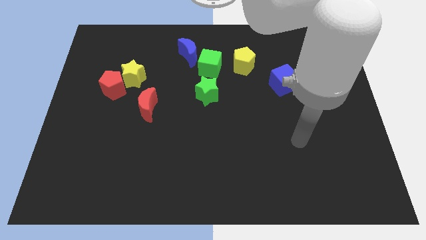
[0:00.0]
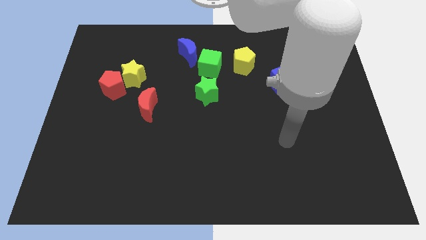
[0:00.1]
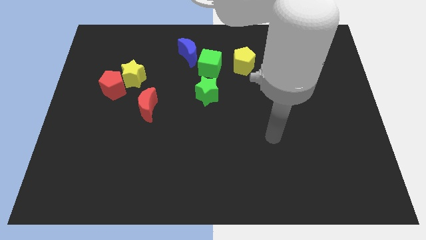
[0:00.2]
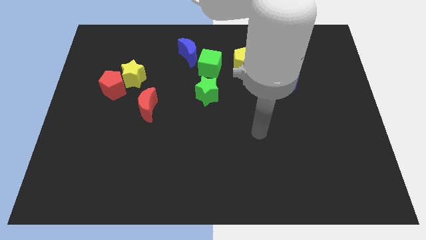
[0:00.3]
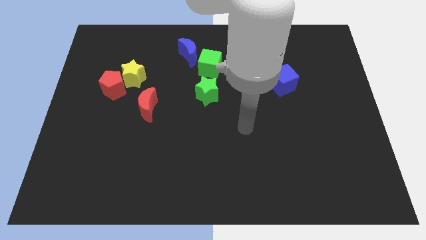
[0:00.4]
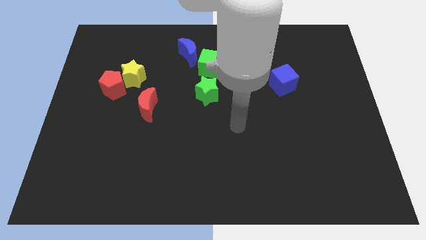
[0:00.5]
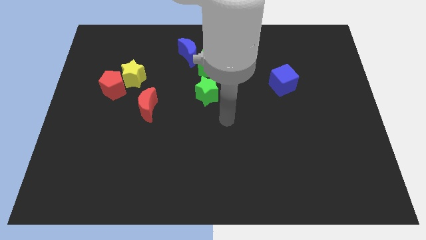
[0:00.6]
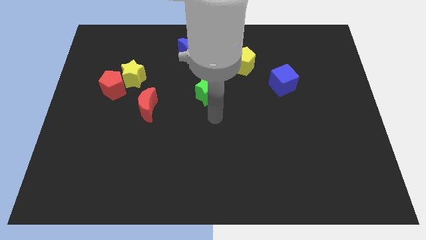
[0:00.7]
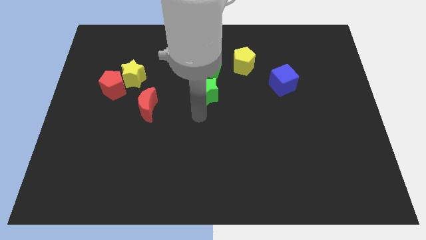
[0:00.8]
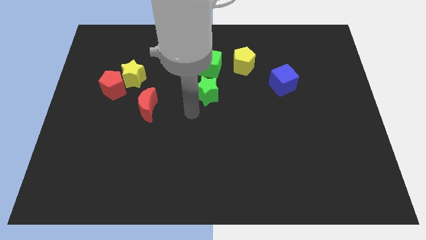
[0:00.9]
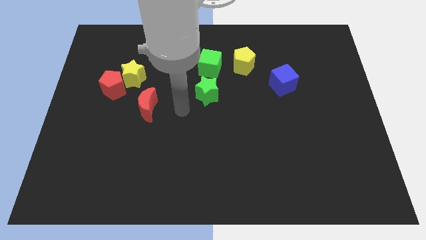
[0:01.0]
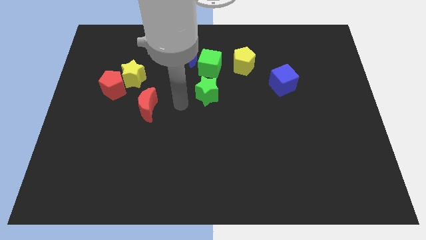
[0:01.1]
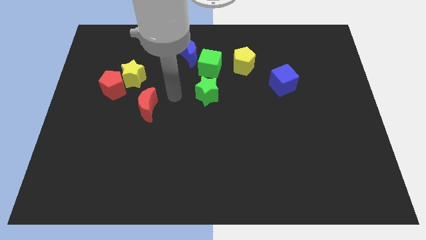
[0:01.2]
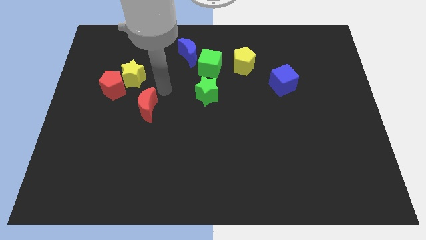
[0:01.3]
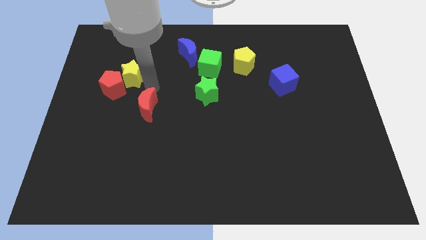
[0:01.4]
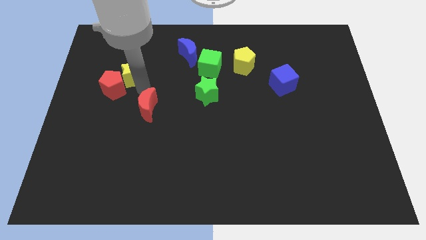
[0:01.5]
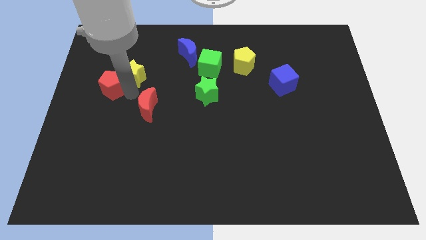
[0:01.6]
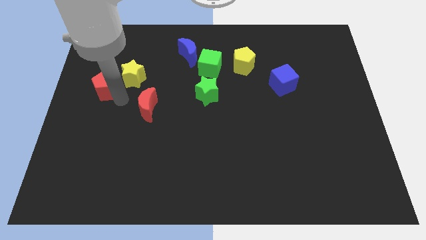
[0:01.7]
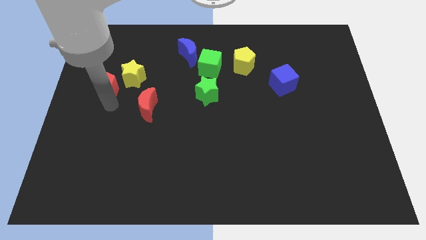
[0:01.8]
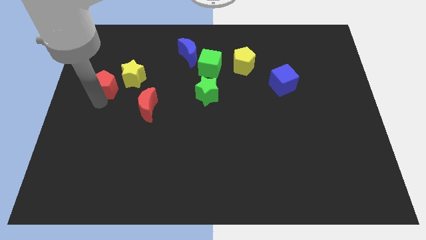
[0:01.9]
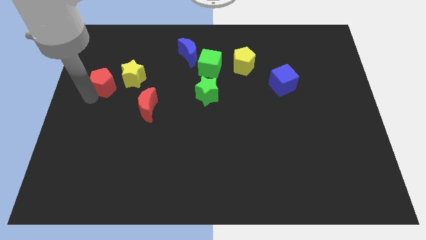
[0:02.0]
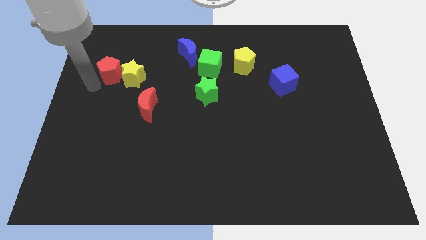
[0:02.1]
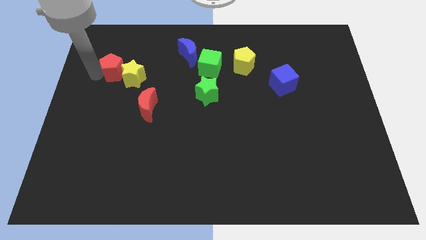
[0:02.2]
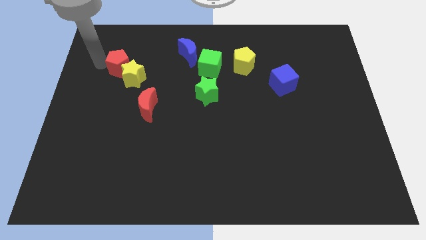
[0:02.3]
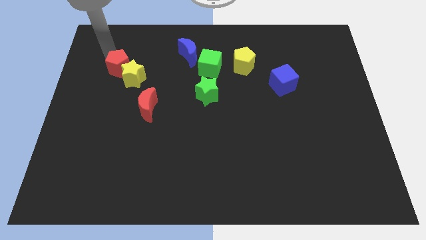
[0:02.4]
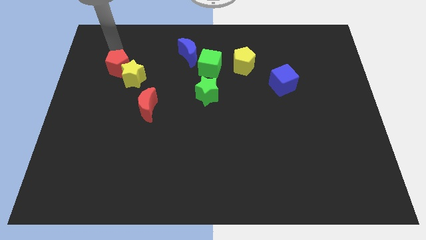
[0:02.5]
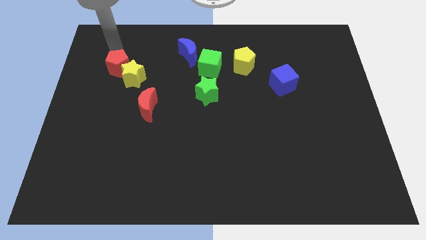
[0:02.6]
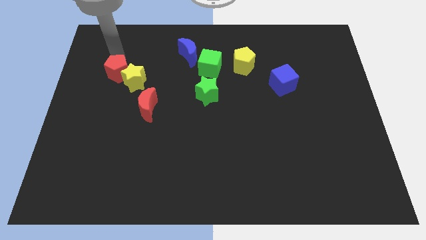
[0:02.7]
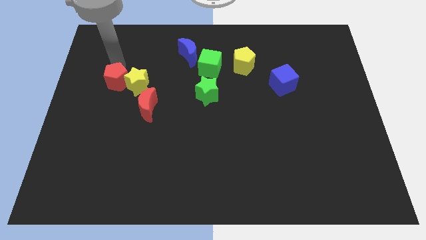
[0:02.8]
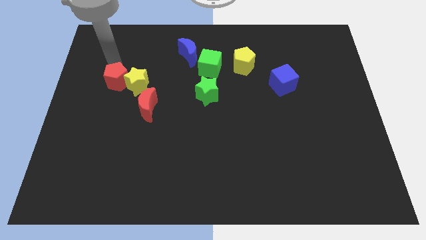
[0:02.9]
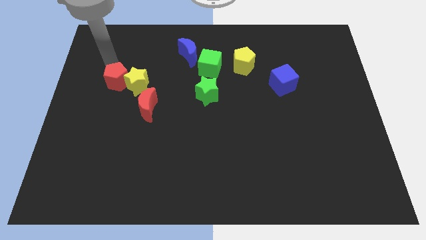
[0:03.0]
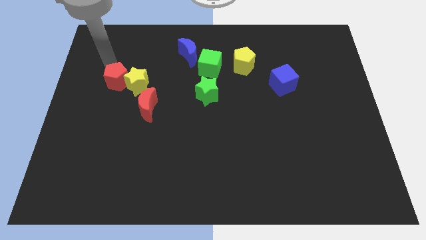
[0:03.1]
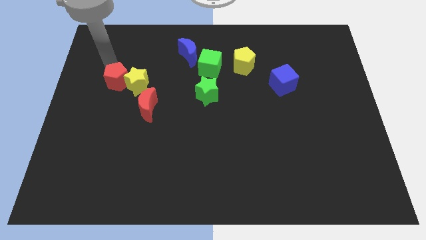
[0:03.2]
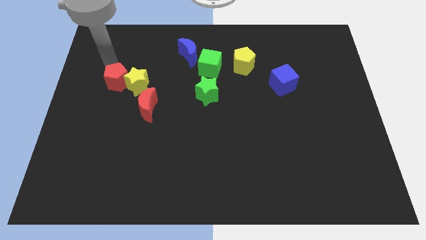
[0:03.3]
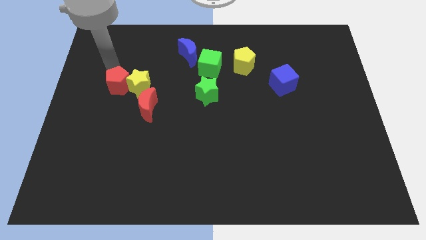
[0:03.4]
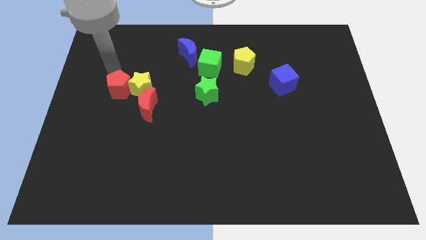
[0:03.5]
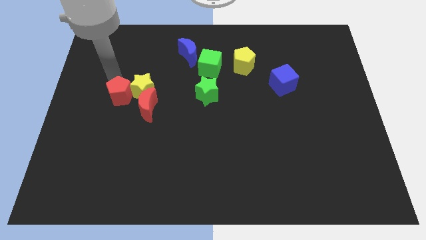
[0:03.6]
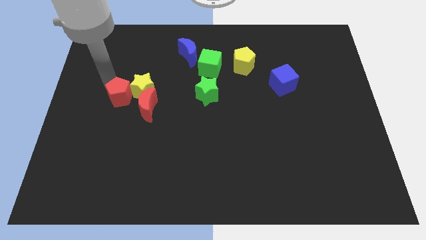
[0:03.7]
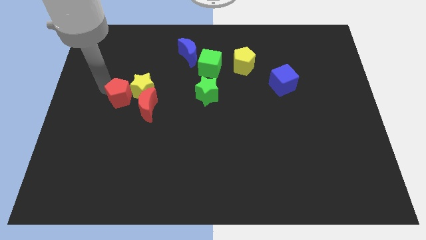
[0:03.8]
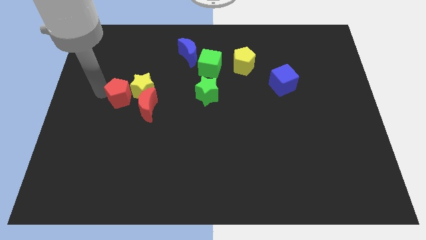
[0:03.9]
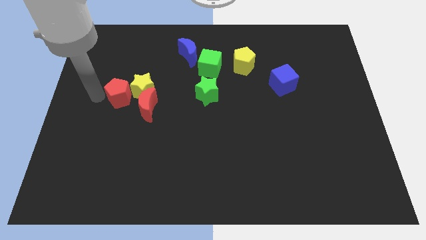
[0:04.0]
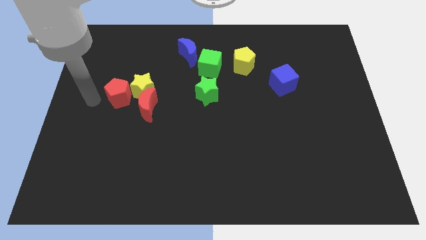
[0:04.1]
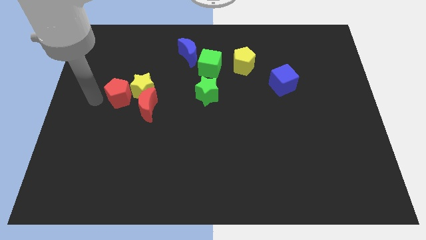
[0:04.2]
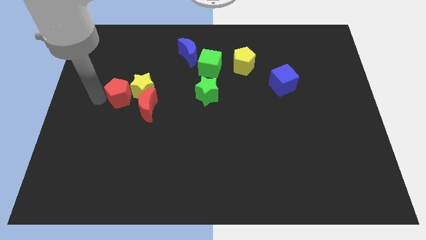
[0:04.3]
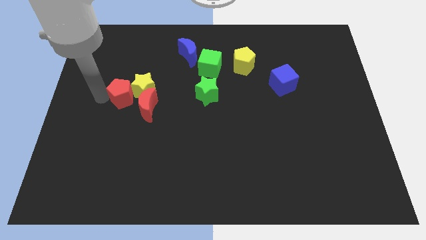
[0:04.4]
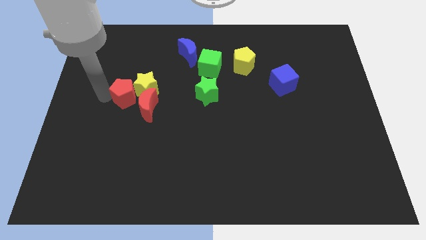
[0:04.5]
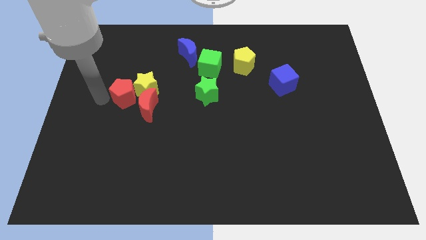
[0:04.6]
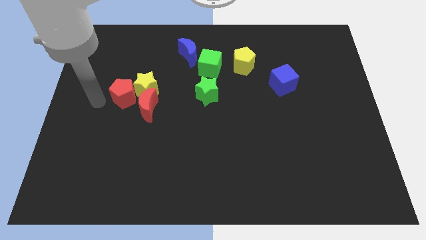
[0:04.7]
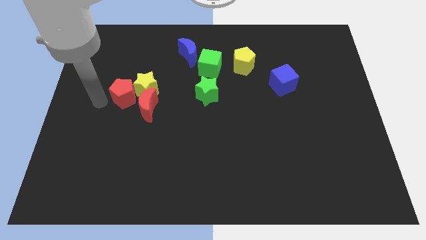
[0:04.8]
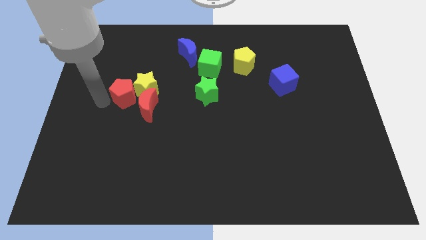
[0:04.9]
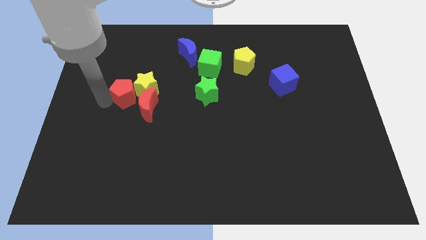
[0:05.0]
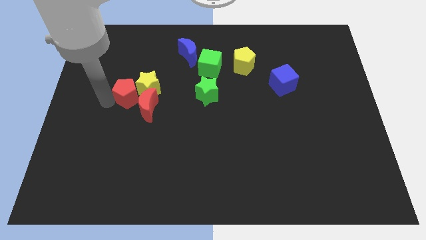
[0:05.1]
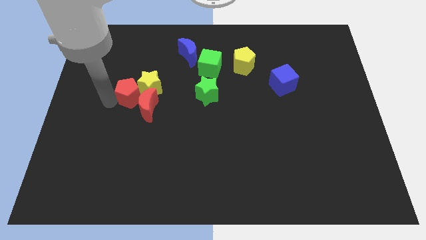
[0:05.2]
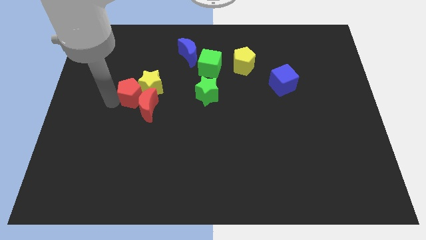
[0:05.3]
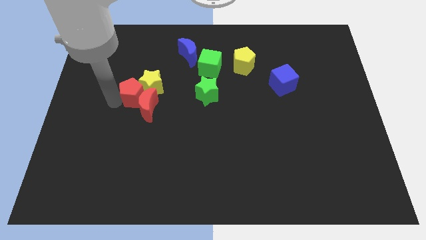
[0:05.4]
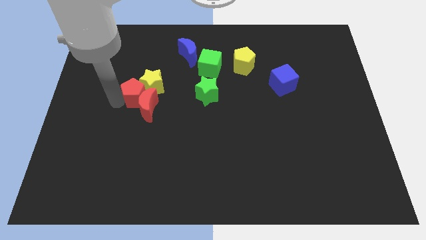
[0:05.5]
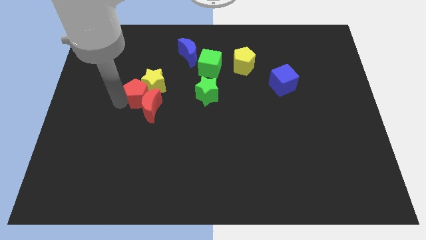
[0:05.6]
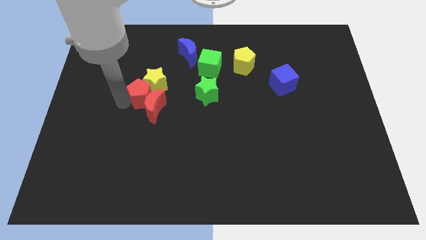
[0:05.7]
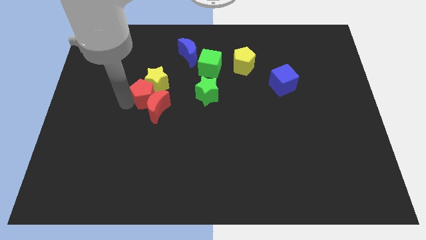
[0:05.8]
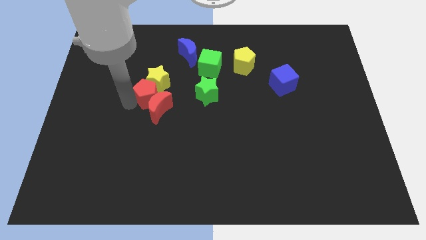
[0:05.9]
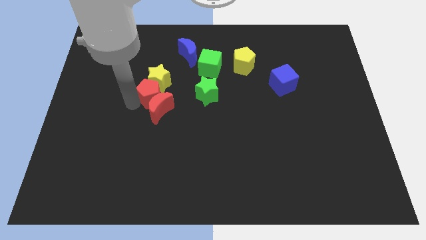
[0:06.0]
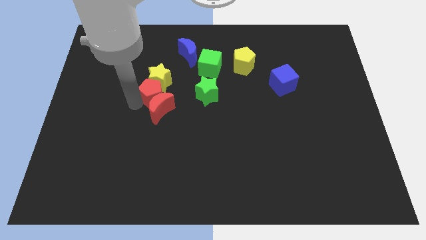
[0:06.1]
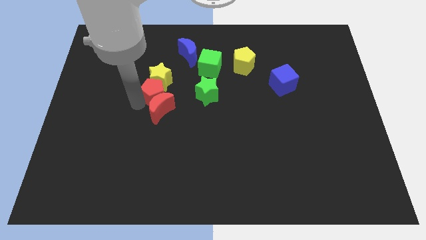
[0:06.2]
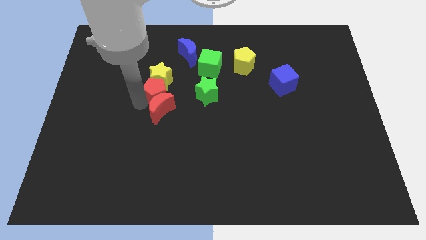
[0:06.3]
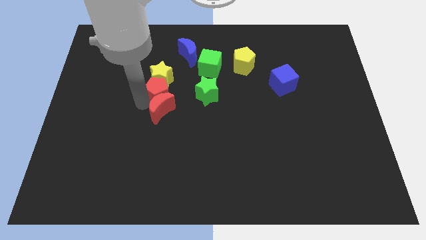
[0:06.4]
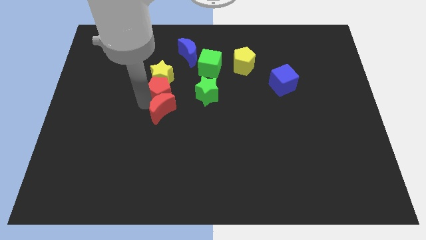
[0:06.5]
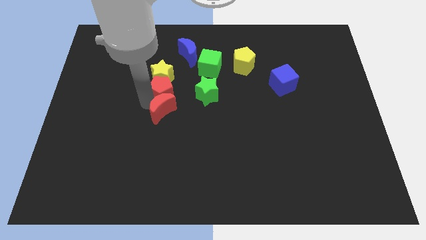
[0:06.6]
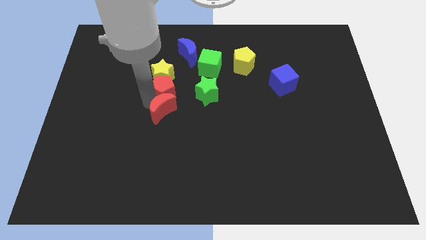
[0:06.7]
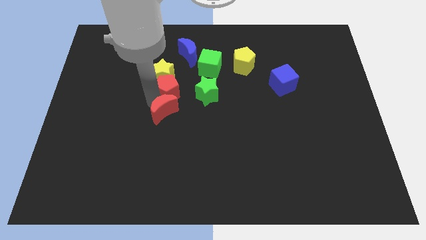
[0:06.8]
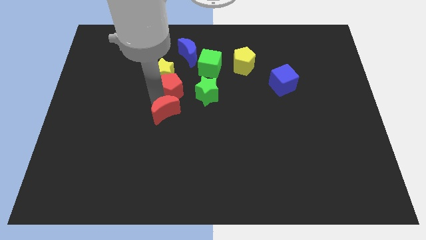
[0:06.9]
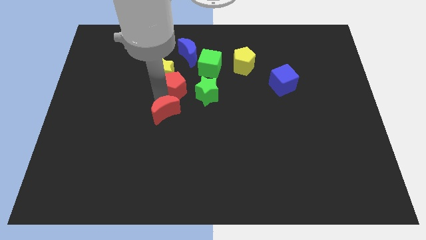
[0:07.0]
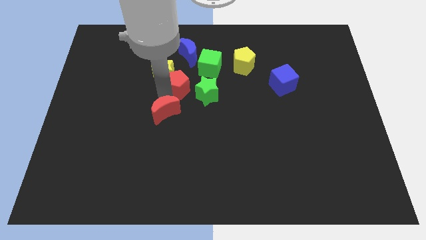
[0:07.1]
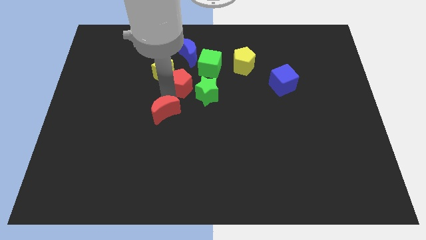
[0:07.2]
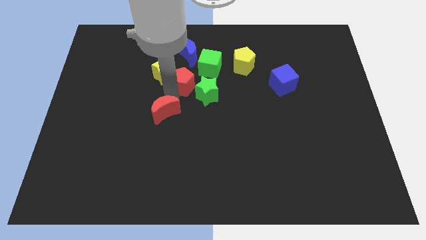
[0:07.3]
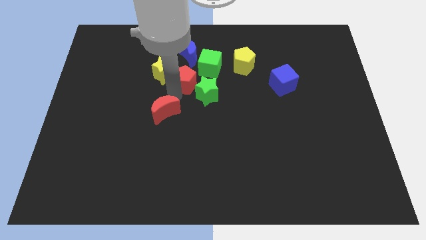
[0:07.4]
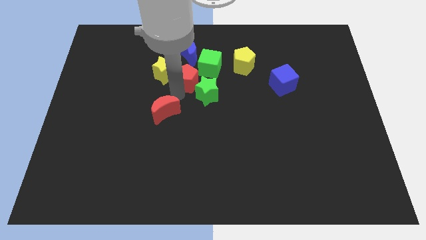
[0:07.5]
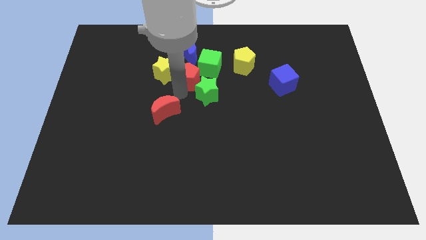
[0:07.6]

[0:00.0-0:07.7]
push the red pentagon just left of the green cube
